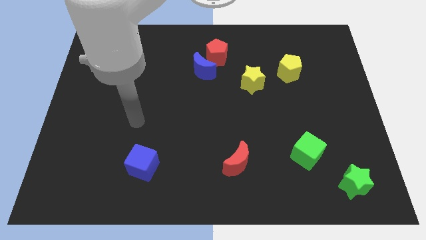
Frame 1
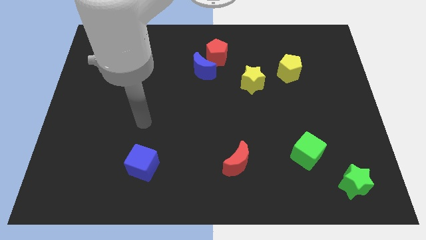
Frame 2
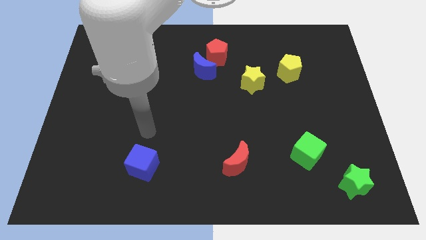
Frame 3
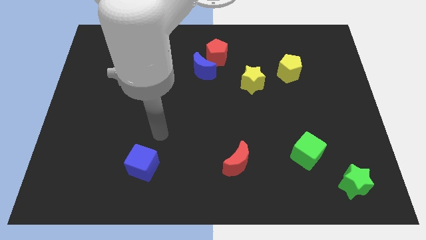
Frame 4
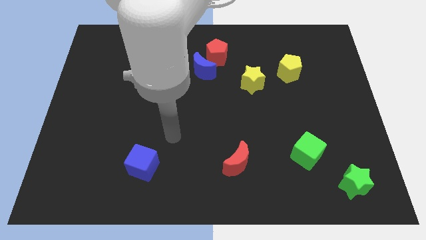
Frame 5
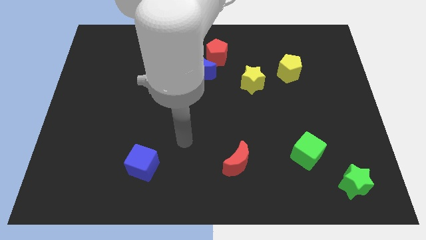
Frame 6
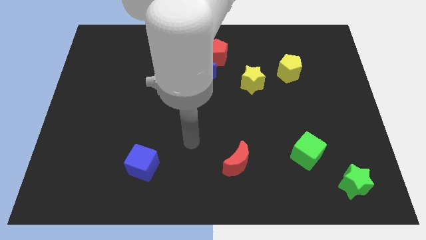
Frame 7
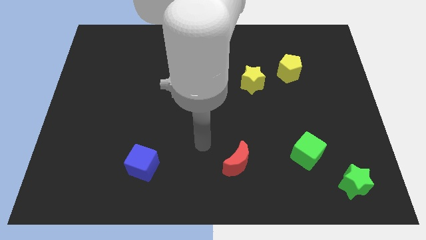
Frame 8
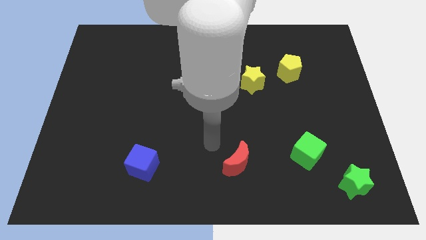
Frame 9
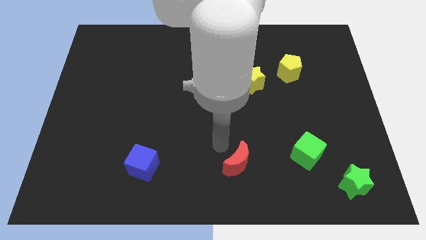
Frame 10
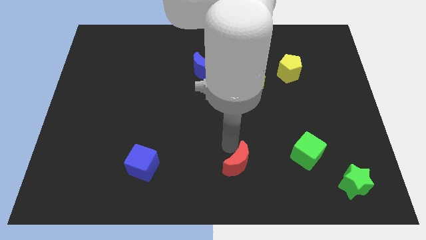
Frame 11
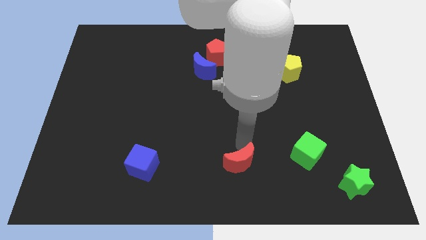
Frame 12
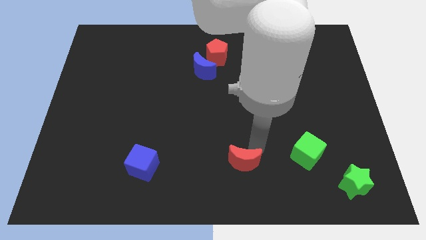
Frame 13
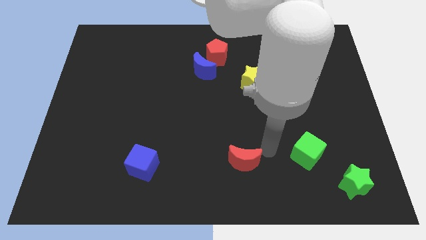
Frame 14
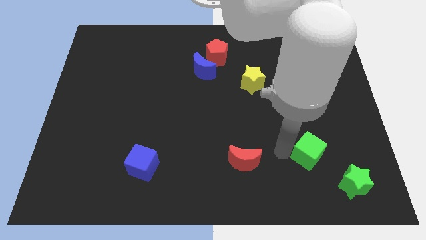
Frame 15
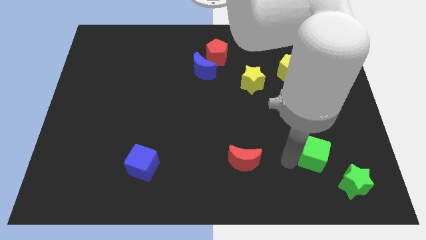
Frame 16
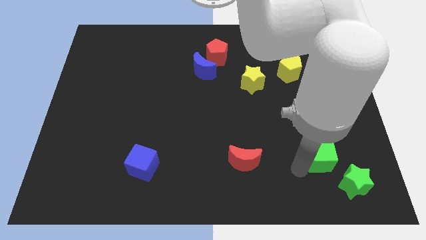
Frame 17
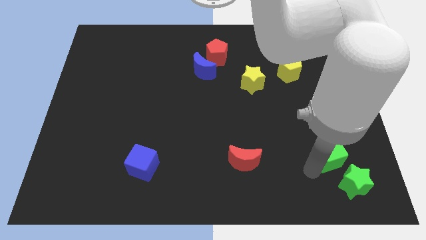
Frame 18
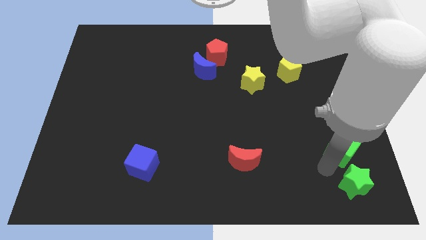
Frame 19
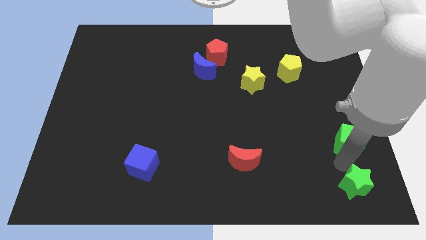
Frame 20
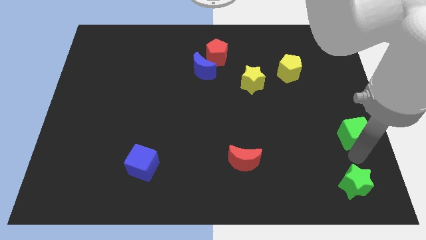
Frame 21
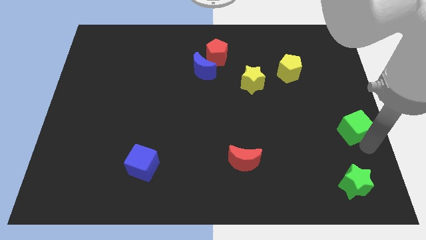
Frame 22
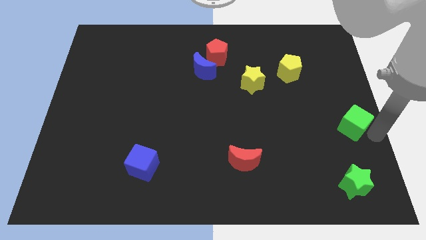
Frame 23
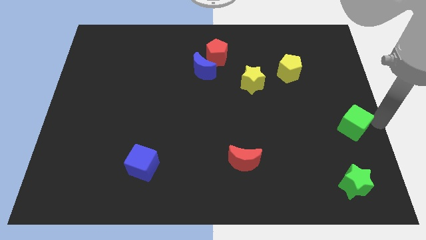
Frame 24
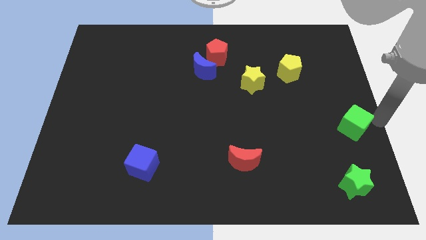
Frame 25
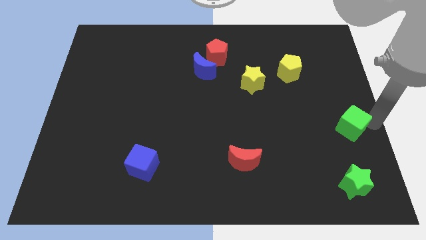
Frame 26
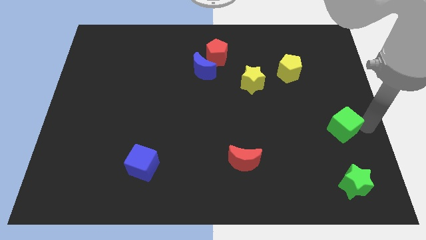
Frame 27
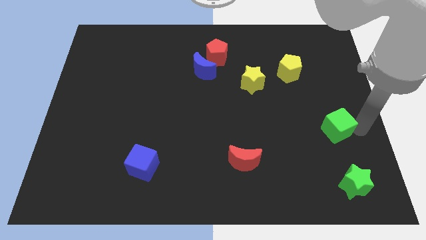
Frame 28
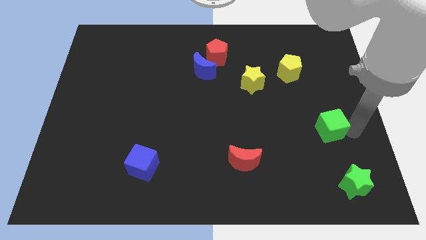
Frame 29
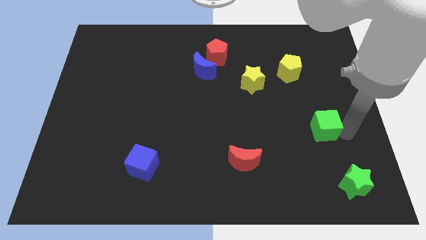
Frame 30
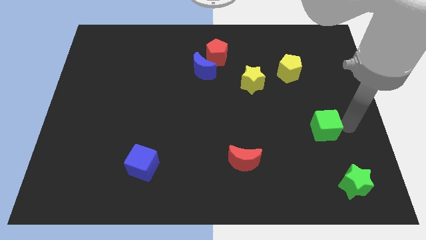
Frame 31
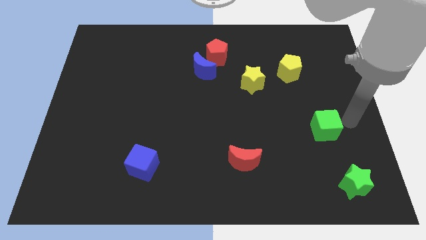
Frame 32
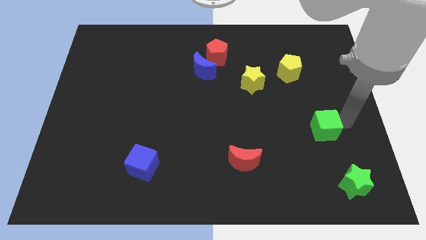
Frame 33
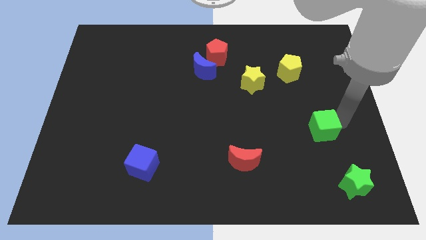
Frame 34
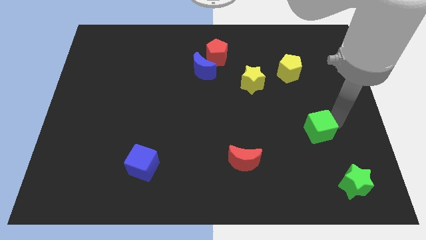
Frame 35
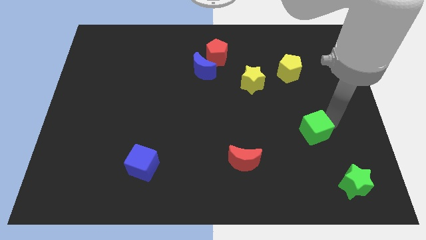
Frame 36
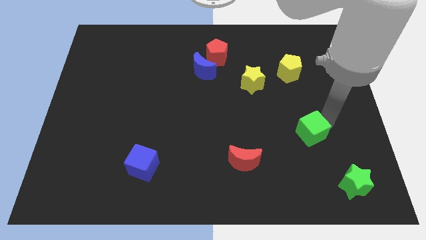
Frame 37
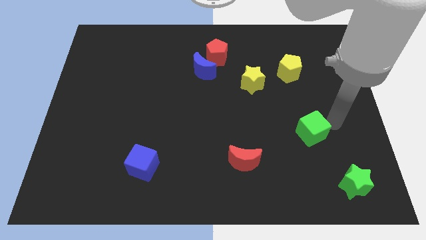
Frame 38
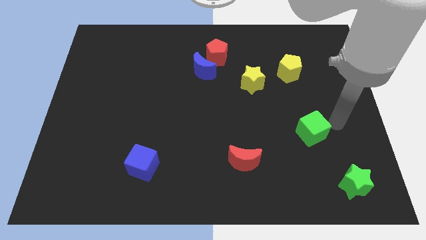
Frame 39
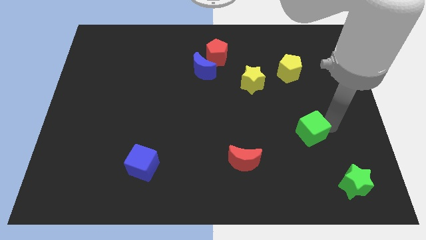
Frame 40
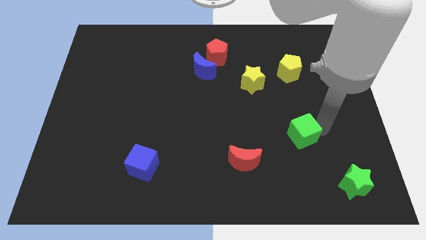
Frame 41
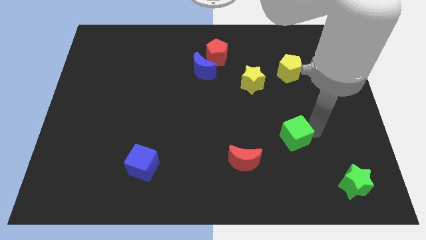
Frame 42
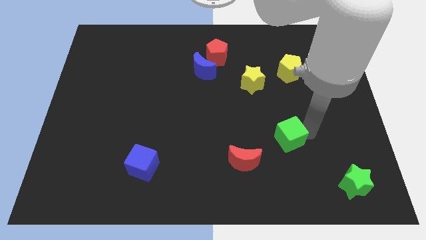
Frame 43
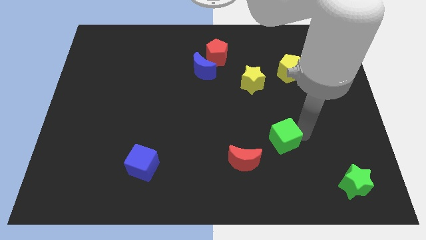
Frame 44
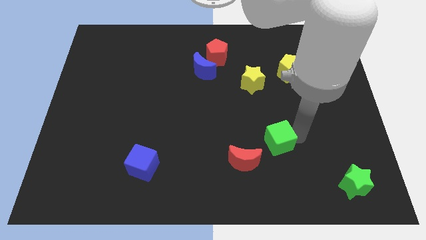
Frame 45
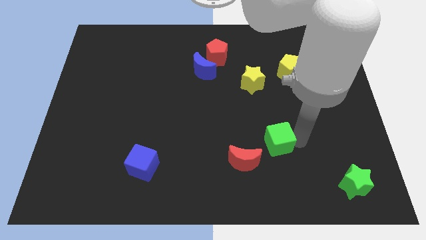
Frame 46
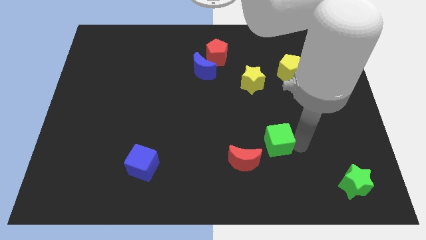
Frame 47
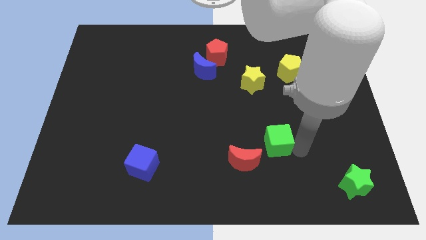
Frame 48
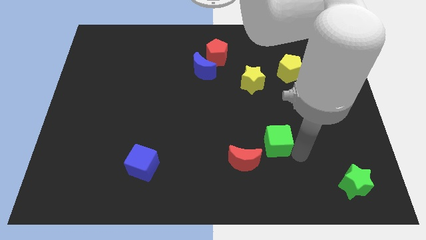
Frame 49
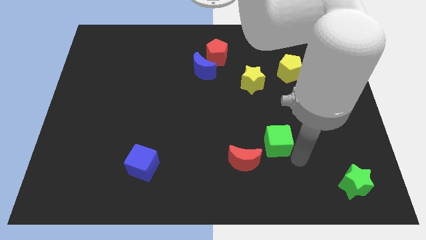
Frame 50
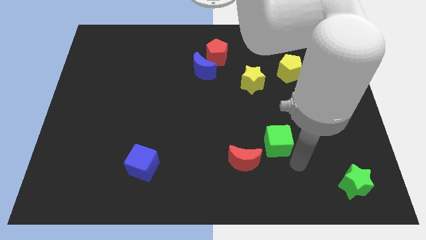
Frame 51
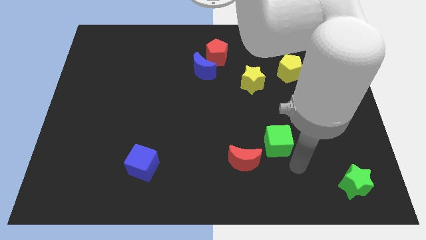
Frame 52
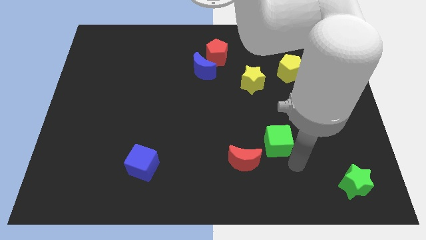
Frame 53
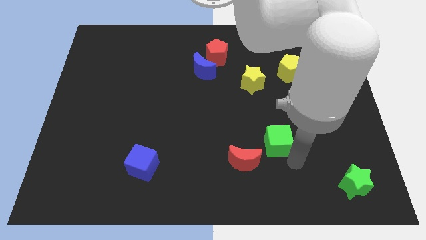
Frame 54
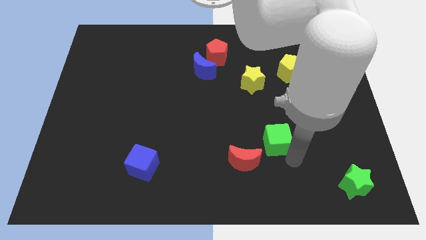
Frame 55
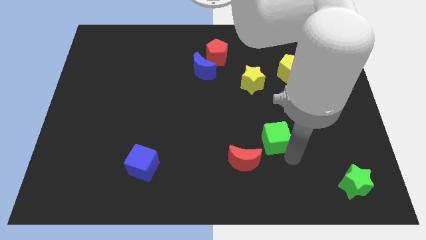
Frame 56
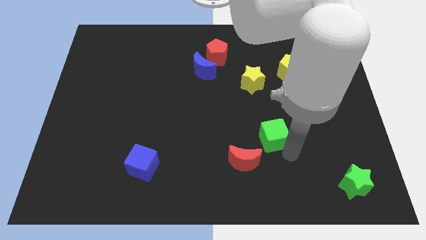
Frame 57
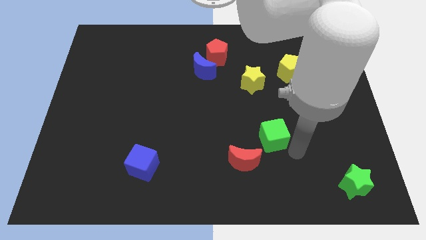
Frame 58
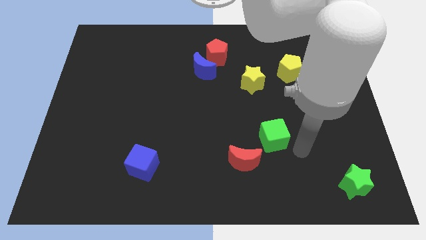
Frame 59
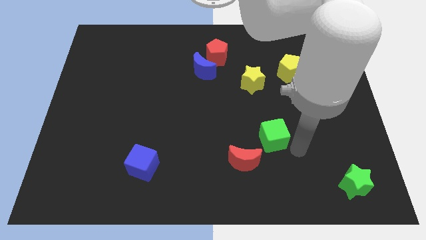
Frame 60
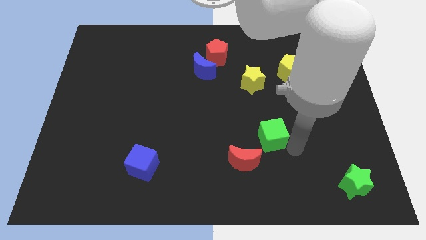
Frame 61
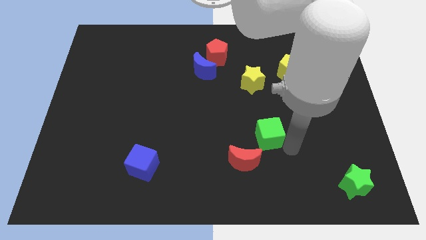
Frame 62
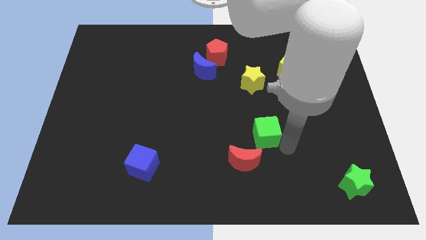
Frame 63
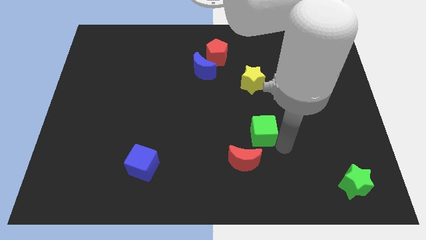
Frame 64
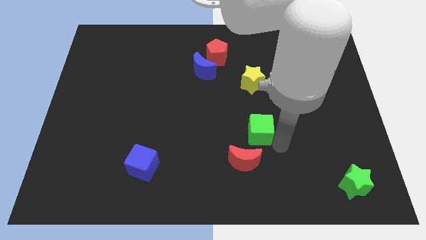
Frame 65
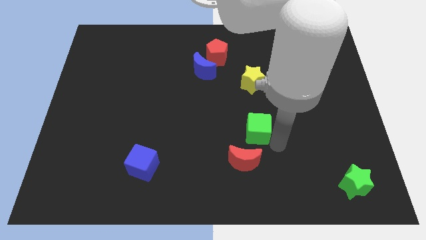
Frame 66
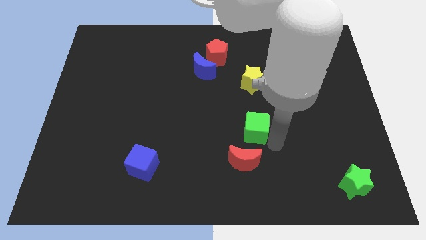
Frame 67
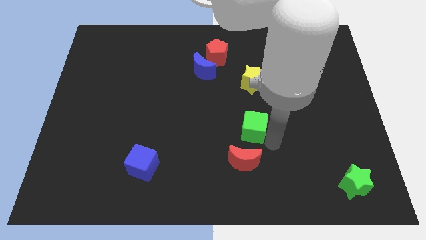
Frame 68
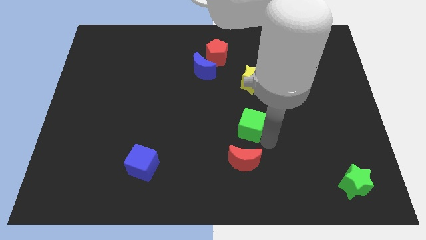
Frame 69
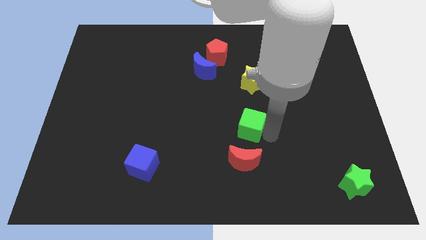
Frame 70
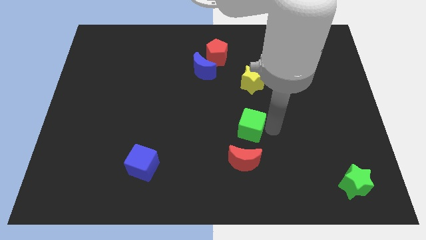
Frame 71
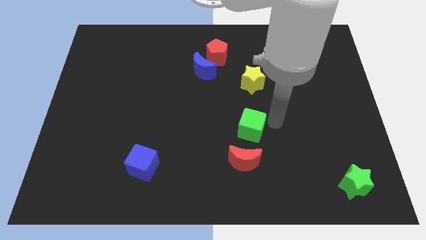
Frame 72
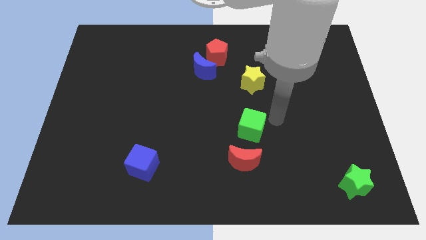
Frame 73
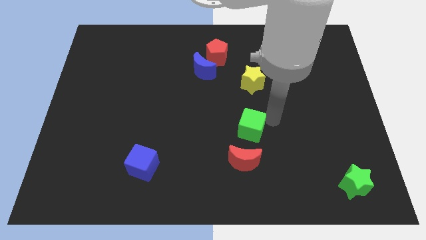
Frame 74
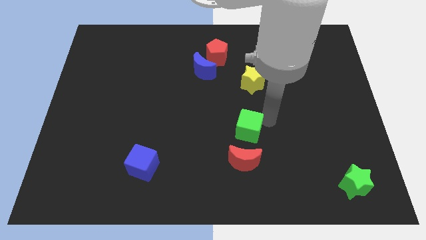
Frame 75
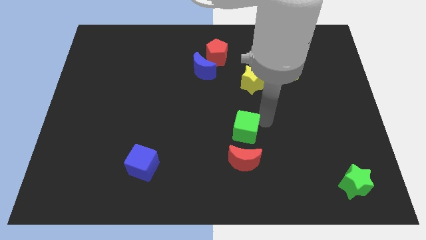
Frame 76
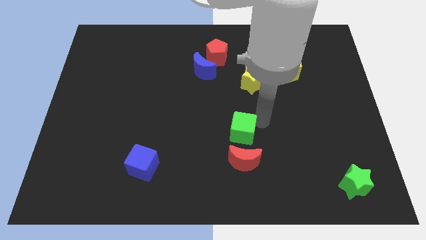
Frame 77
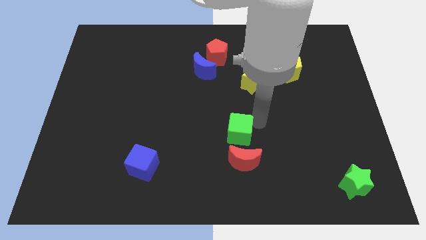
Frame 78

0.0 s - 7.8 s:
move the green cube diagonally up and to the left of the red moon
